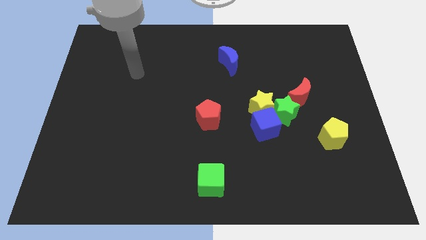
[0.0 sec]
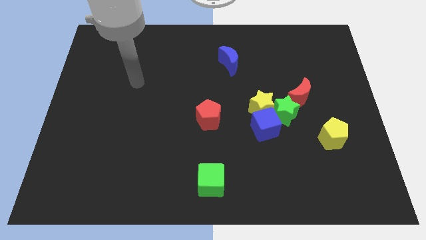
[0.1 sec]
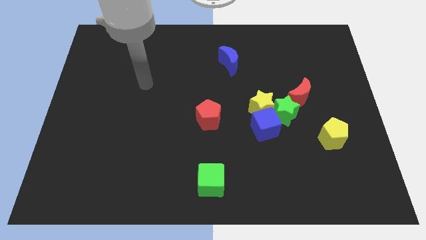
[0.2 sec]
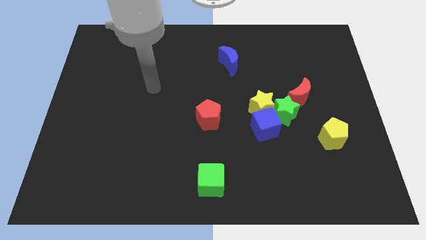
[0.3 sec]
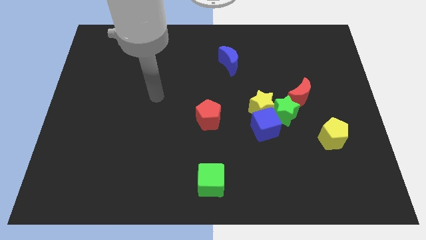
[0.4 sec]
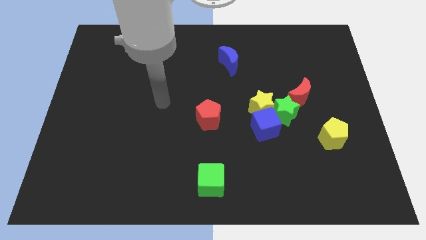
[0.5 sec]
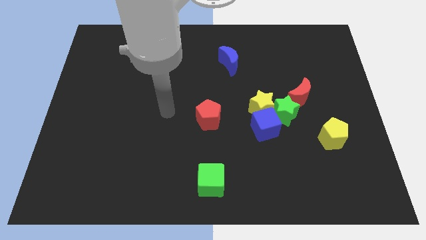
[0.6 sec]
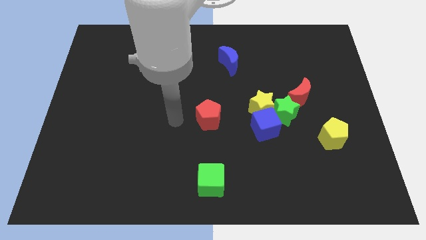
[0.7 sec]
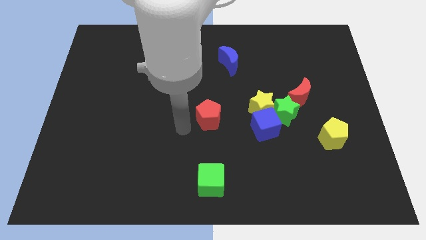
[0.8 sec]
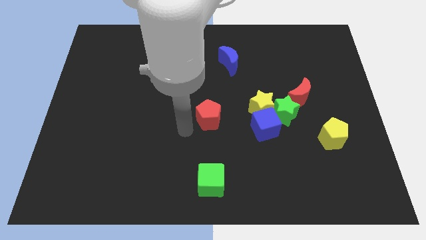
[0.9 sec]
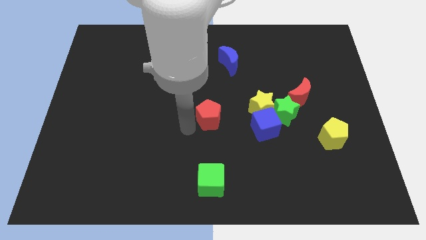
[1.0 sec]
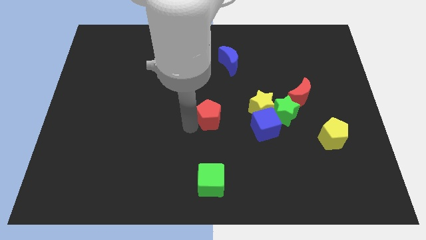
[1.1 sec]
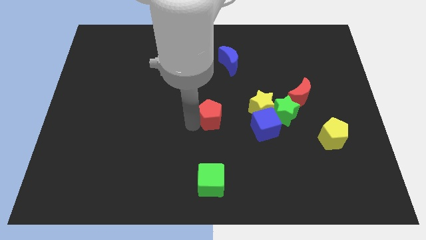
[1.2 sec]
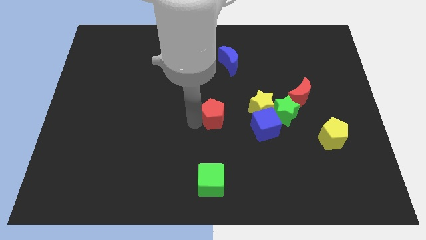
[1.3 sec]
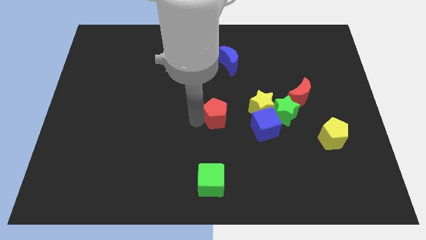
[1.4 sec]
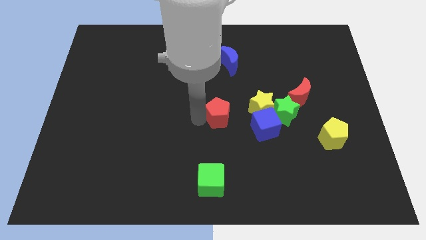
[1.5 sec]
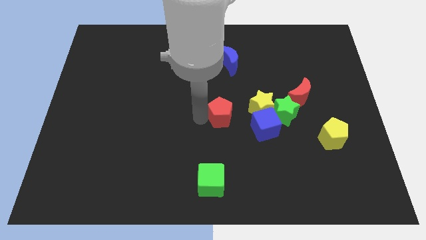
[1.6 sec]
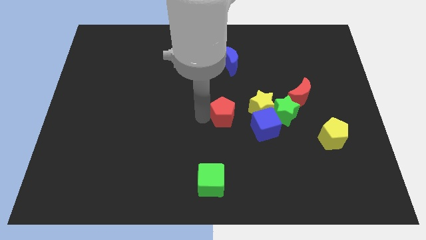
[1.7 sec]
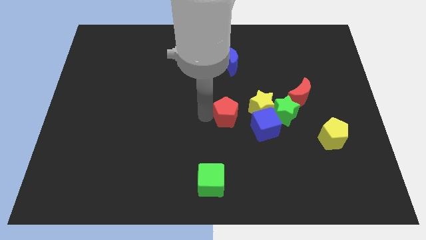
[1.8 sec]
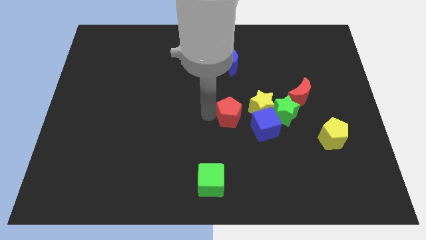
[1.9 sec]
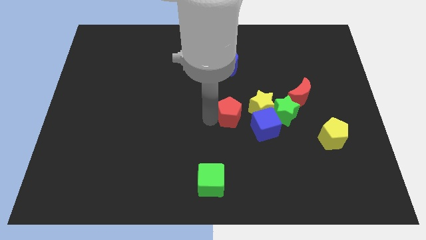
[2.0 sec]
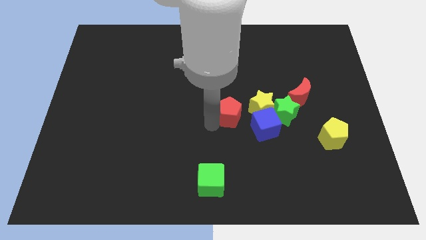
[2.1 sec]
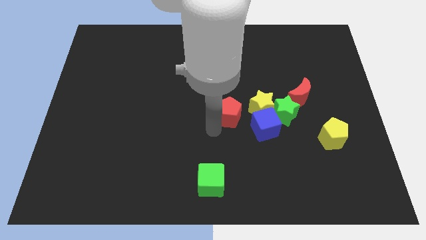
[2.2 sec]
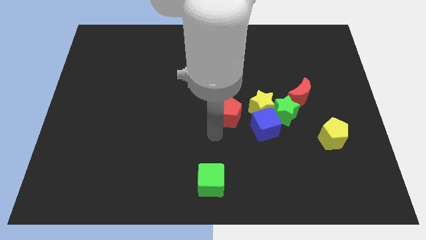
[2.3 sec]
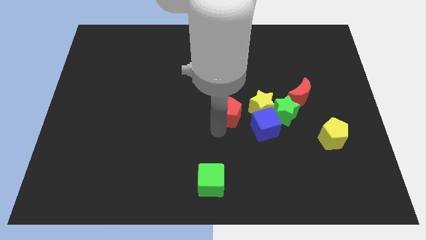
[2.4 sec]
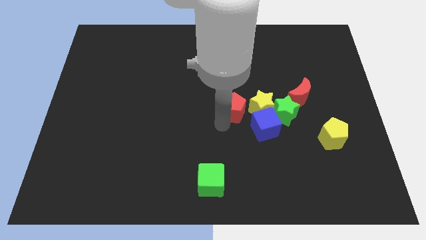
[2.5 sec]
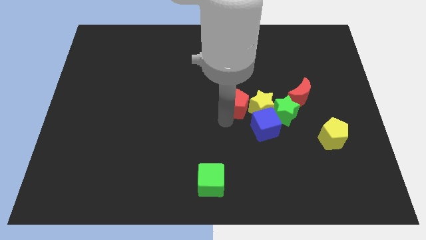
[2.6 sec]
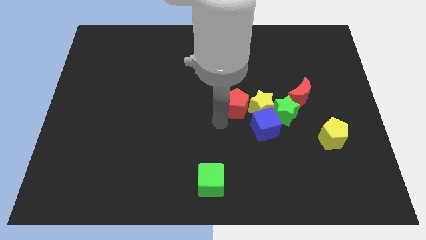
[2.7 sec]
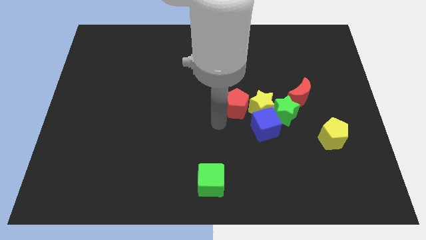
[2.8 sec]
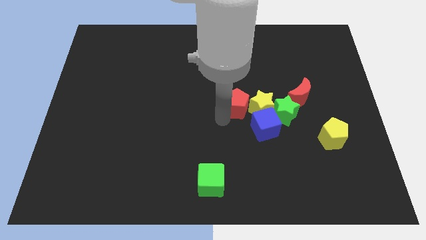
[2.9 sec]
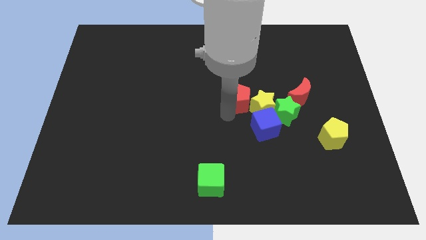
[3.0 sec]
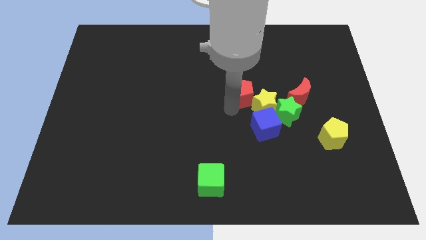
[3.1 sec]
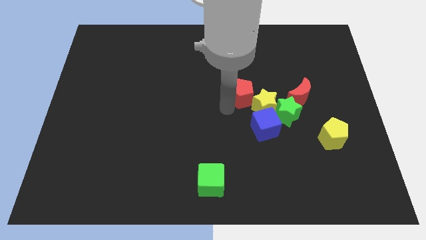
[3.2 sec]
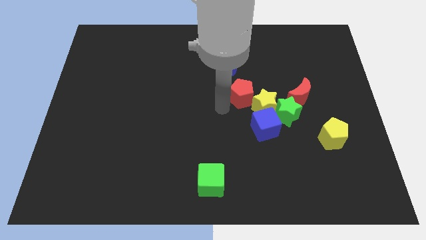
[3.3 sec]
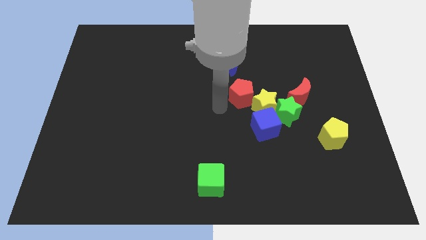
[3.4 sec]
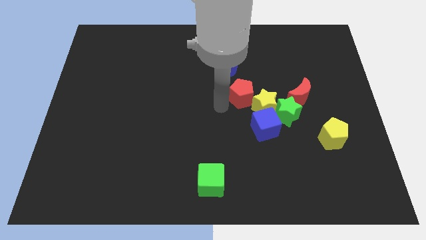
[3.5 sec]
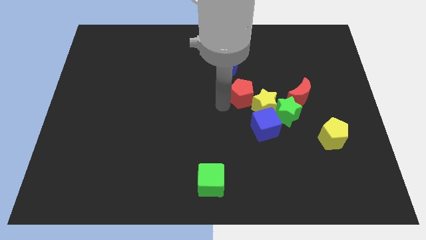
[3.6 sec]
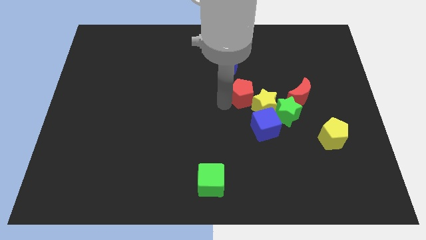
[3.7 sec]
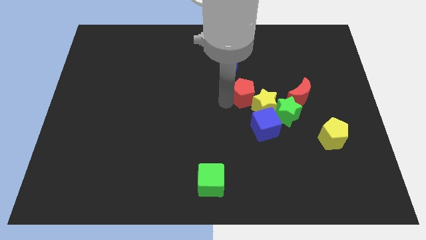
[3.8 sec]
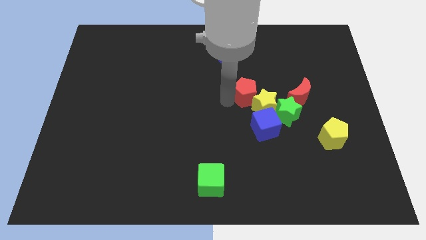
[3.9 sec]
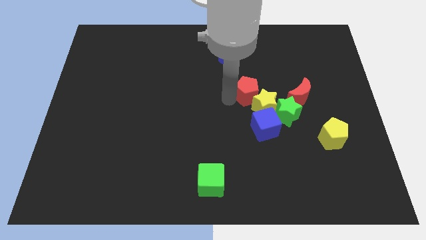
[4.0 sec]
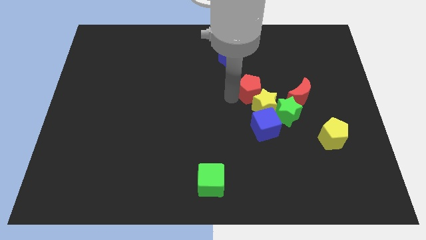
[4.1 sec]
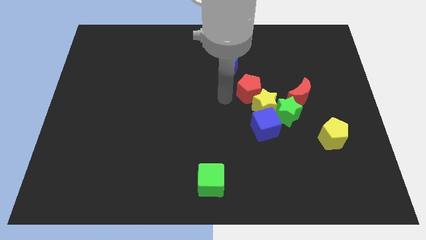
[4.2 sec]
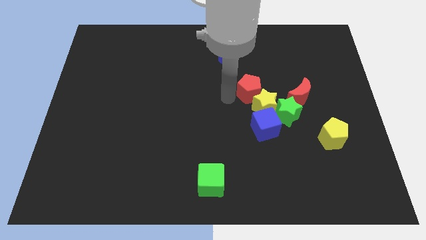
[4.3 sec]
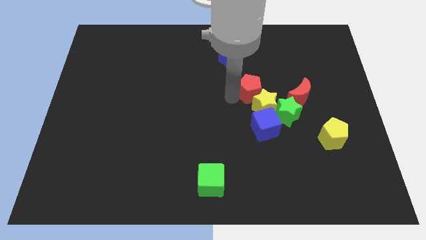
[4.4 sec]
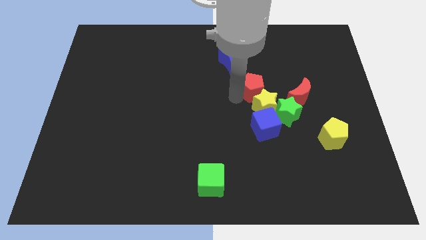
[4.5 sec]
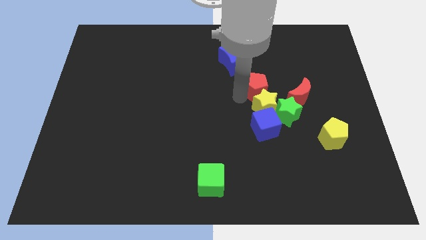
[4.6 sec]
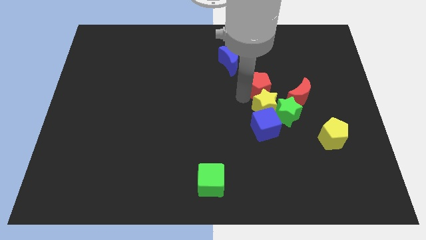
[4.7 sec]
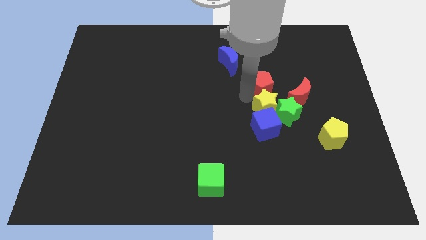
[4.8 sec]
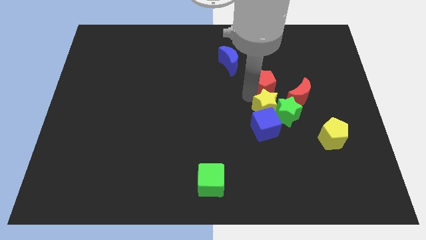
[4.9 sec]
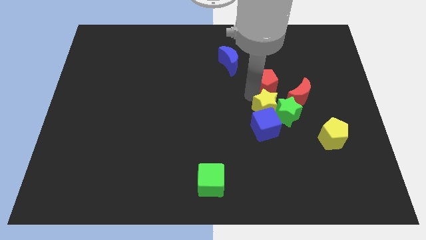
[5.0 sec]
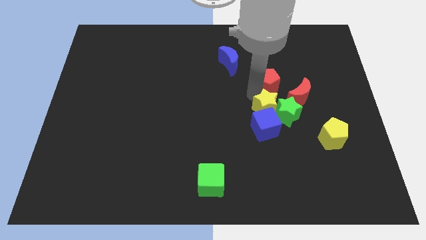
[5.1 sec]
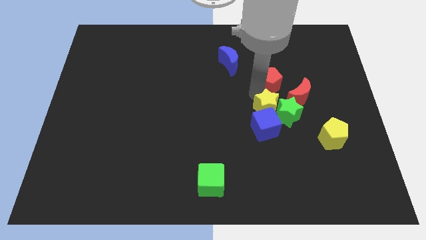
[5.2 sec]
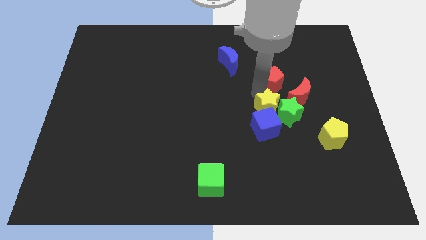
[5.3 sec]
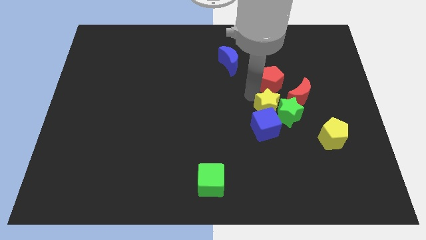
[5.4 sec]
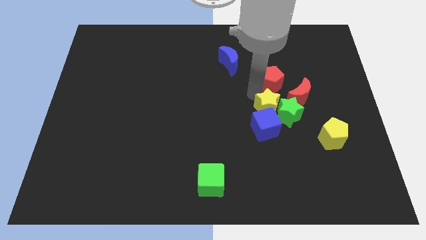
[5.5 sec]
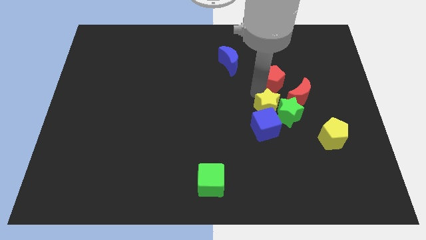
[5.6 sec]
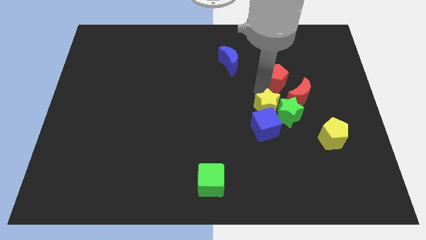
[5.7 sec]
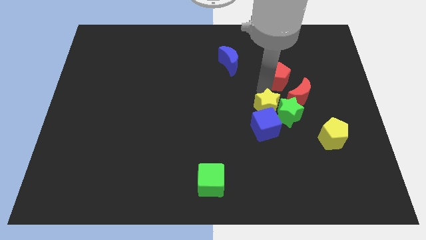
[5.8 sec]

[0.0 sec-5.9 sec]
slide the red pentagon above the red moon

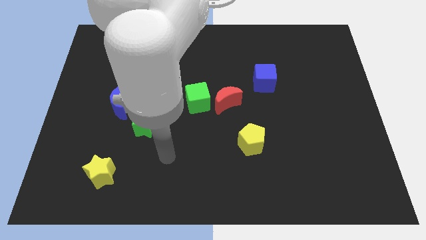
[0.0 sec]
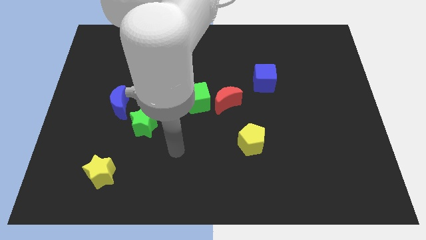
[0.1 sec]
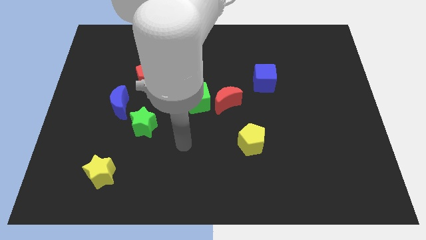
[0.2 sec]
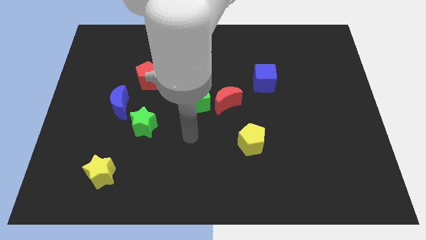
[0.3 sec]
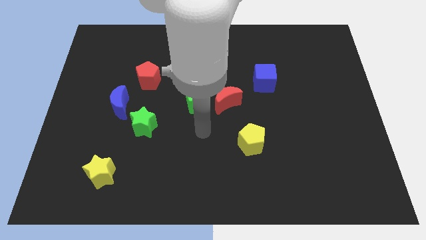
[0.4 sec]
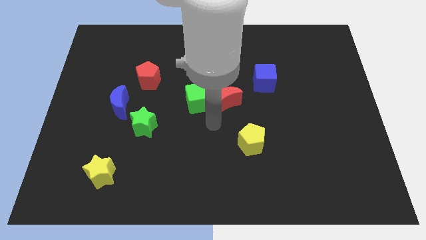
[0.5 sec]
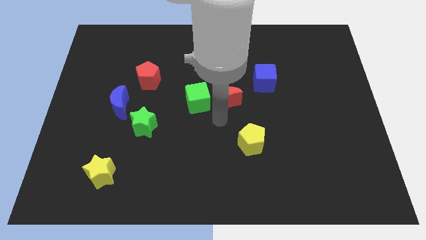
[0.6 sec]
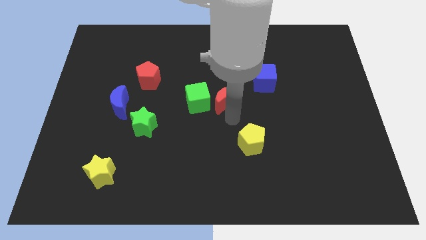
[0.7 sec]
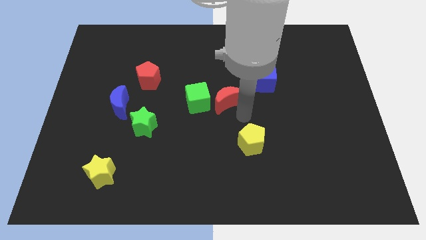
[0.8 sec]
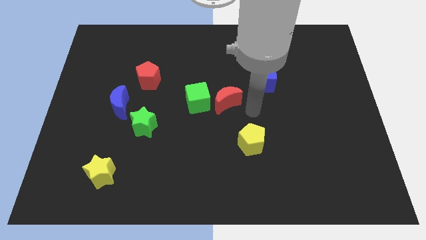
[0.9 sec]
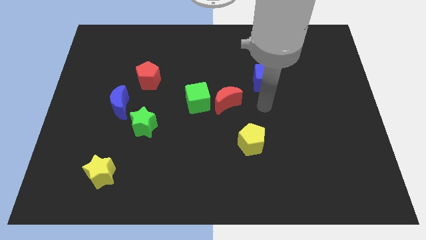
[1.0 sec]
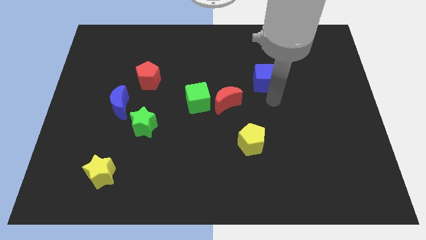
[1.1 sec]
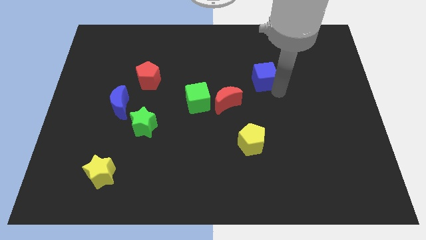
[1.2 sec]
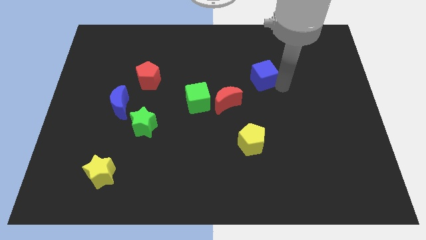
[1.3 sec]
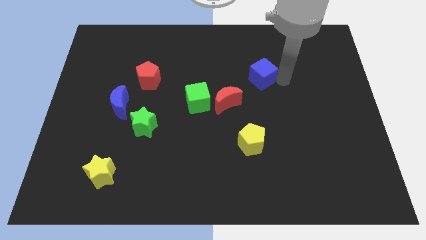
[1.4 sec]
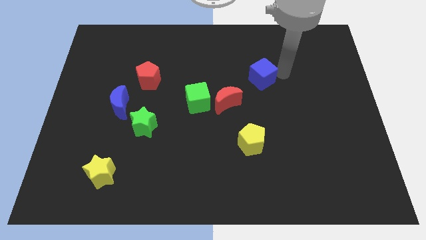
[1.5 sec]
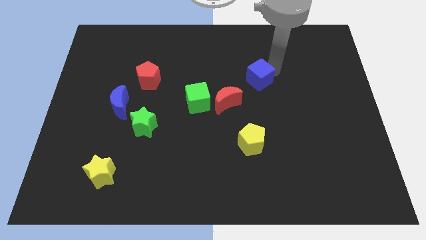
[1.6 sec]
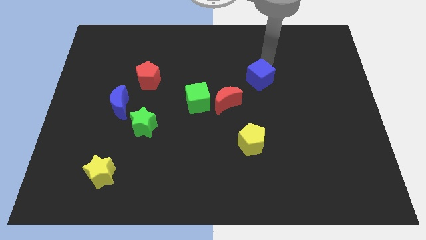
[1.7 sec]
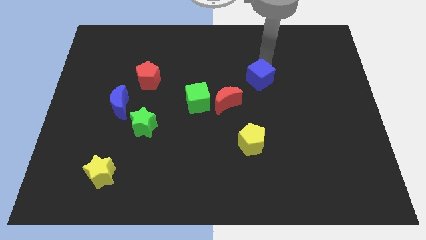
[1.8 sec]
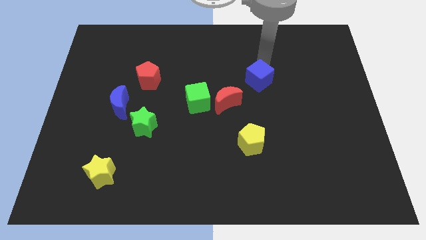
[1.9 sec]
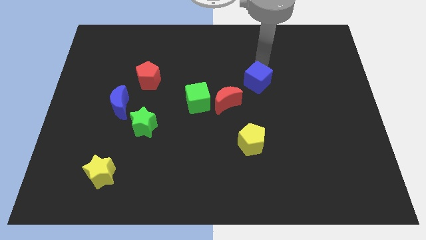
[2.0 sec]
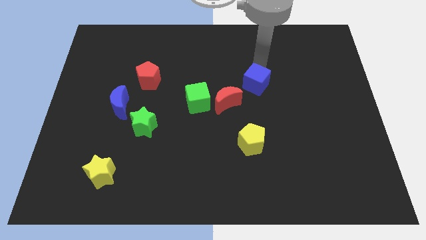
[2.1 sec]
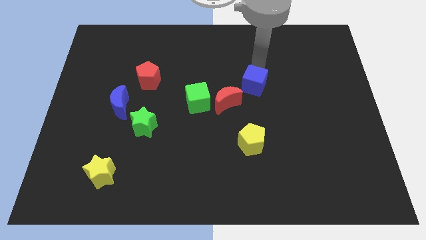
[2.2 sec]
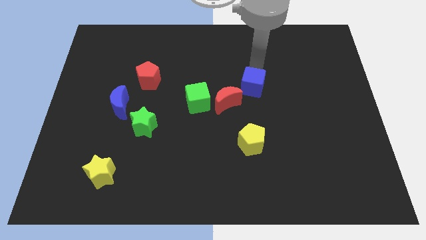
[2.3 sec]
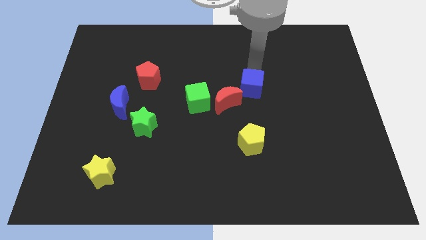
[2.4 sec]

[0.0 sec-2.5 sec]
slide the blue cube to the top of the yellow pentagon
